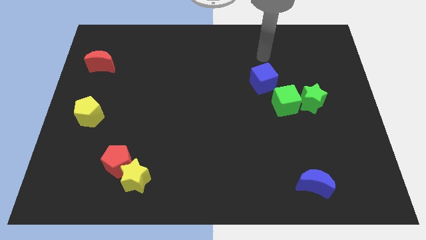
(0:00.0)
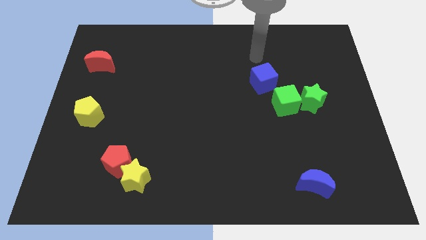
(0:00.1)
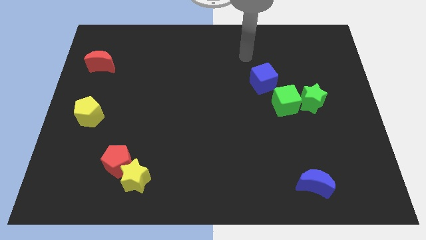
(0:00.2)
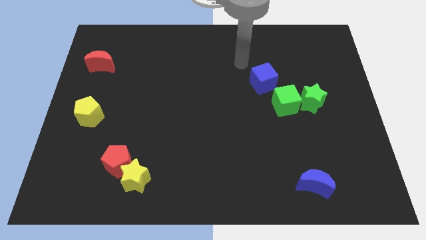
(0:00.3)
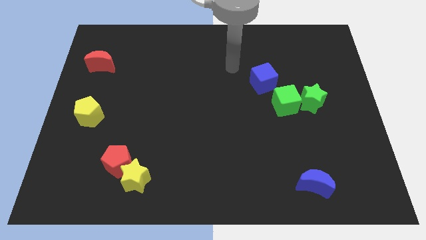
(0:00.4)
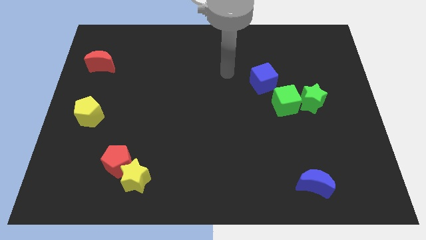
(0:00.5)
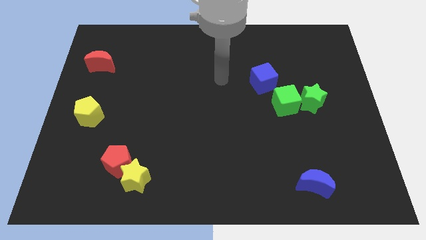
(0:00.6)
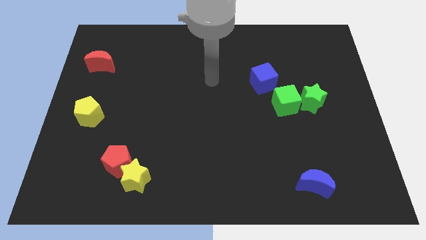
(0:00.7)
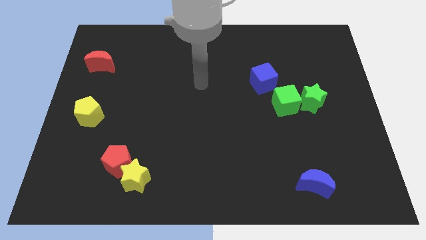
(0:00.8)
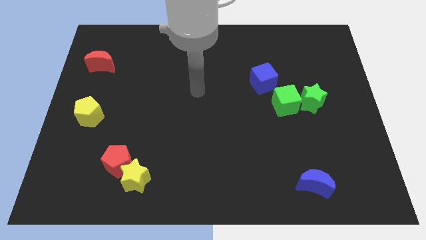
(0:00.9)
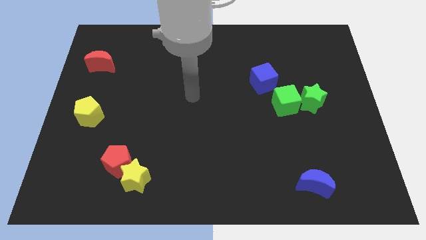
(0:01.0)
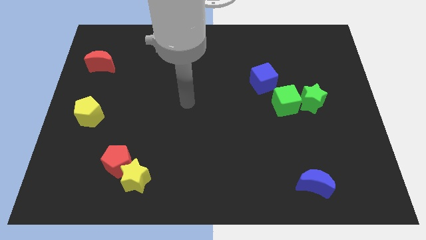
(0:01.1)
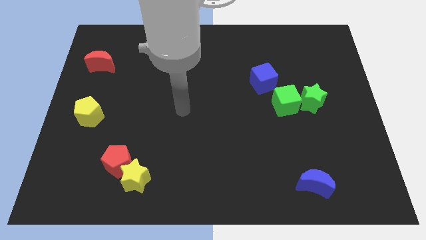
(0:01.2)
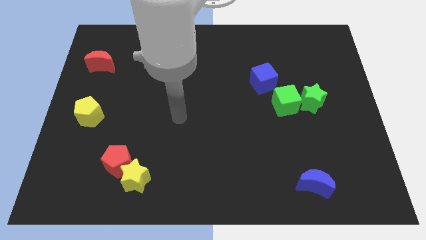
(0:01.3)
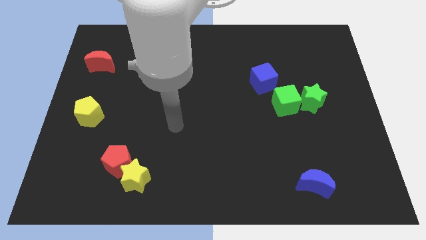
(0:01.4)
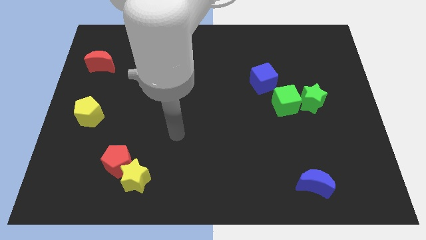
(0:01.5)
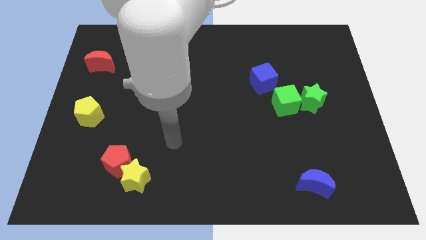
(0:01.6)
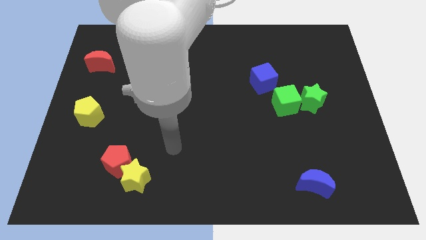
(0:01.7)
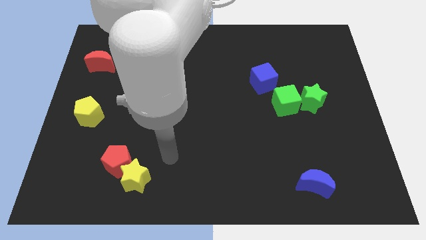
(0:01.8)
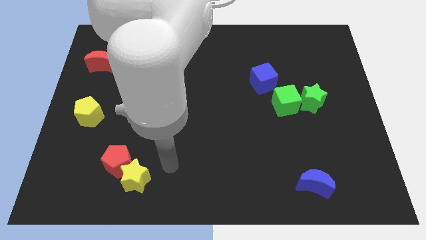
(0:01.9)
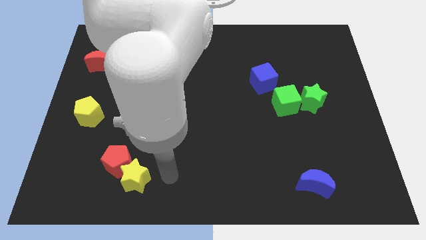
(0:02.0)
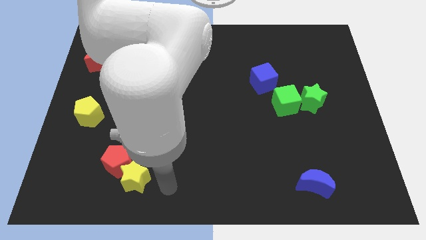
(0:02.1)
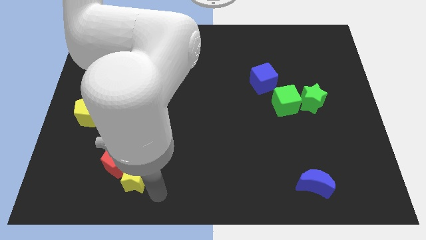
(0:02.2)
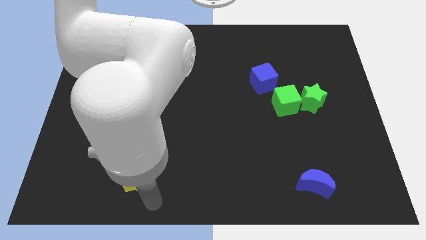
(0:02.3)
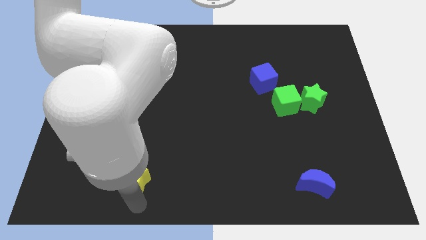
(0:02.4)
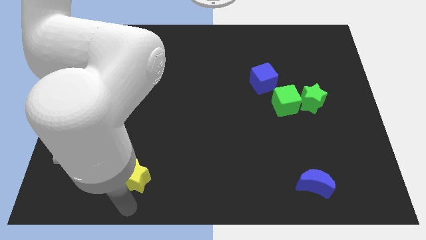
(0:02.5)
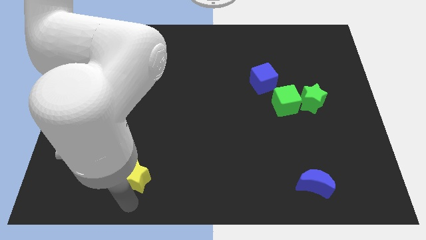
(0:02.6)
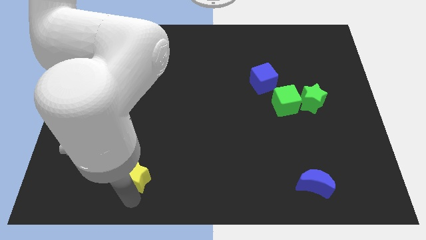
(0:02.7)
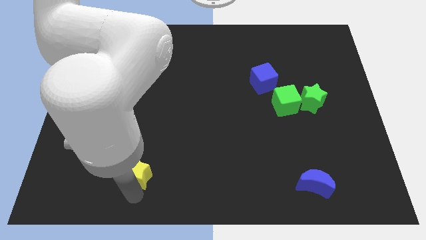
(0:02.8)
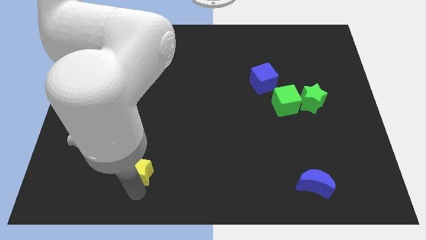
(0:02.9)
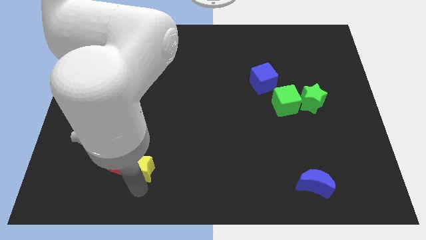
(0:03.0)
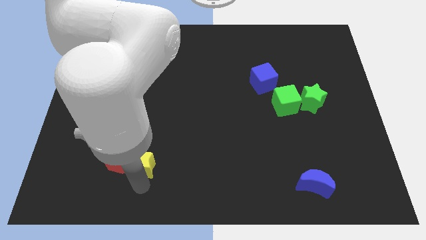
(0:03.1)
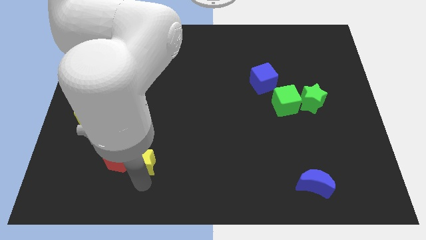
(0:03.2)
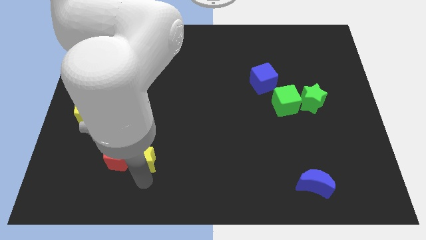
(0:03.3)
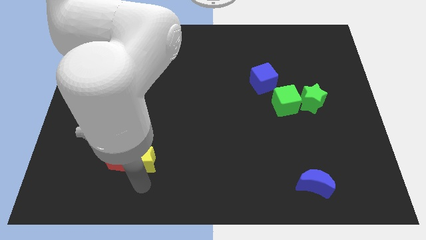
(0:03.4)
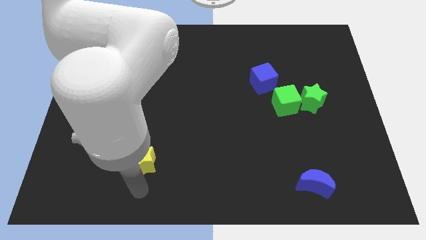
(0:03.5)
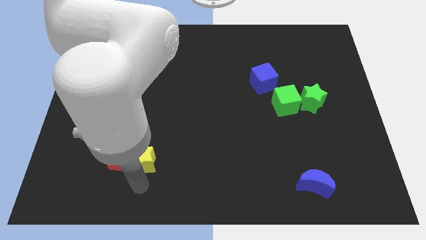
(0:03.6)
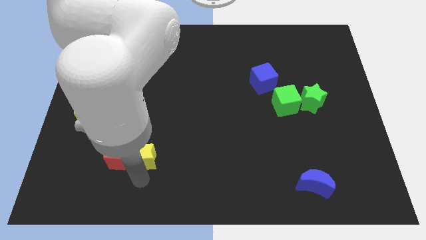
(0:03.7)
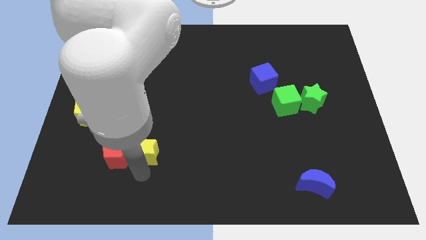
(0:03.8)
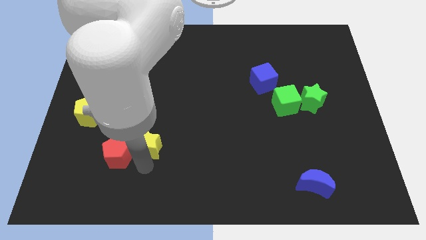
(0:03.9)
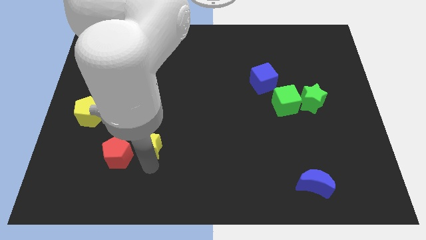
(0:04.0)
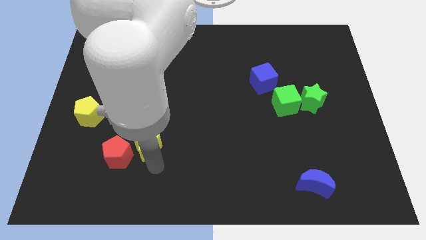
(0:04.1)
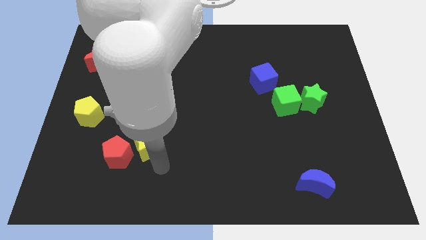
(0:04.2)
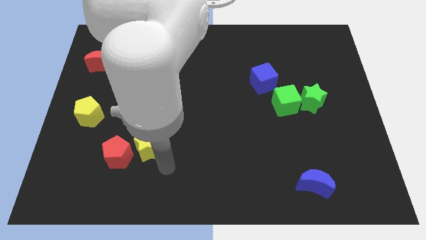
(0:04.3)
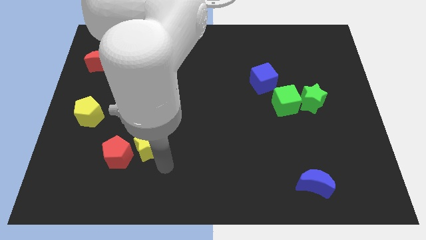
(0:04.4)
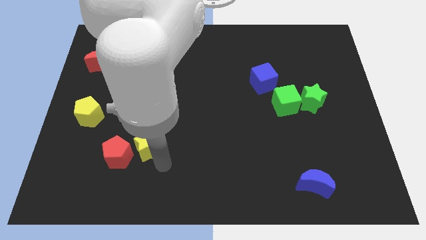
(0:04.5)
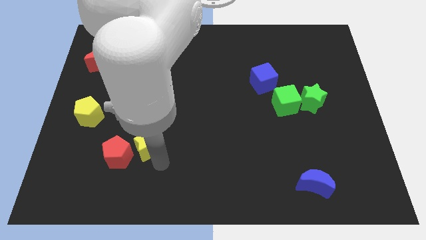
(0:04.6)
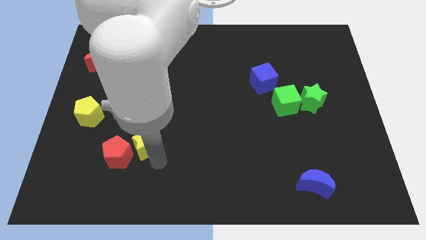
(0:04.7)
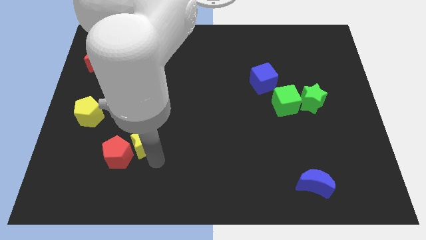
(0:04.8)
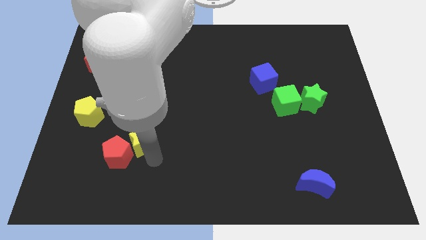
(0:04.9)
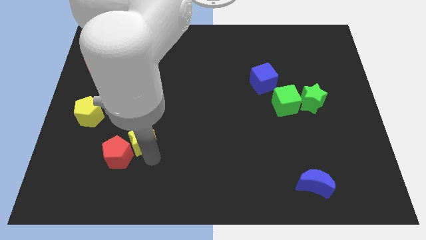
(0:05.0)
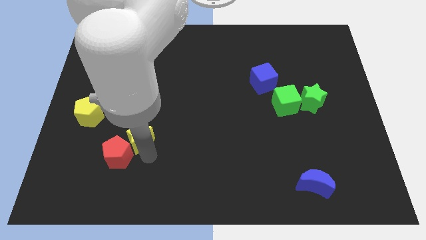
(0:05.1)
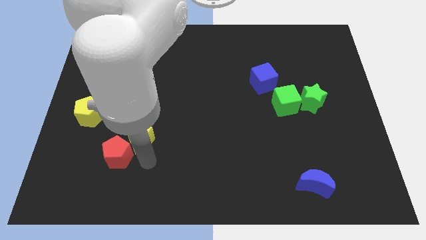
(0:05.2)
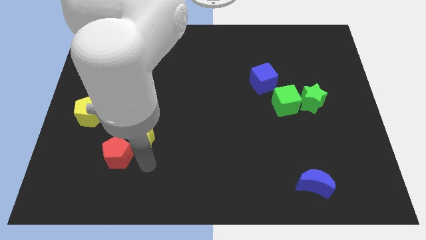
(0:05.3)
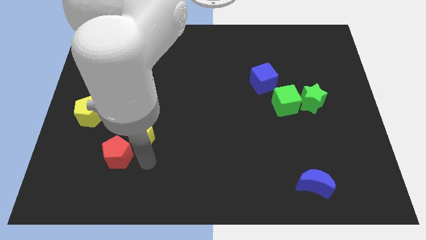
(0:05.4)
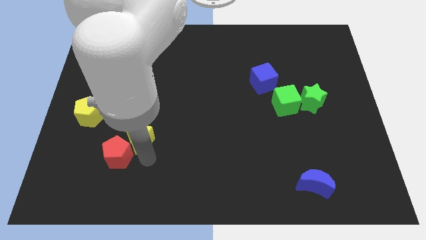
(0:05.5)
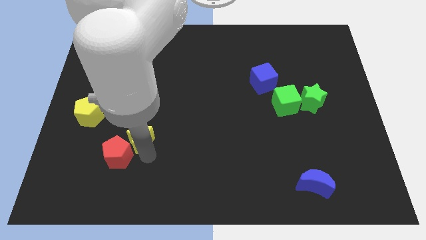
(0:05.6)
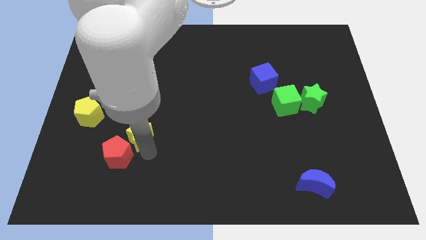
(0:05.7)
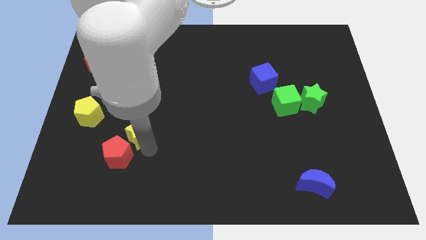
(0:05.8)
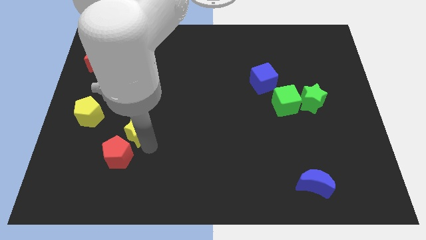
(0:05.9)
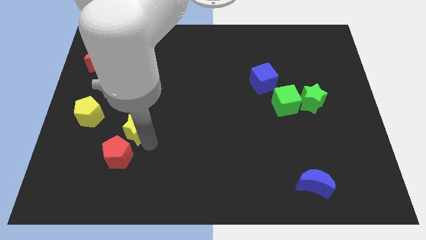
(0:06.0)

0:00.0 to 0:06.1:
put the yellow star to the right side of the yellow pentagon

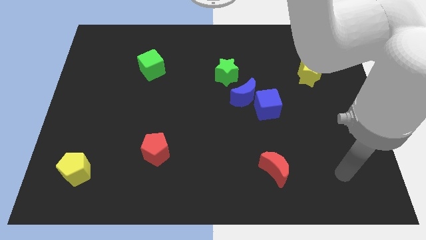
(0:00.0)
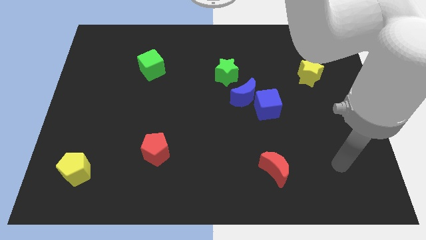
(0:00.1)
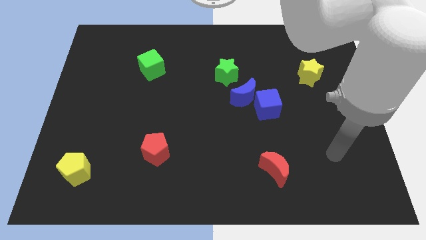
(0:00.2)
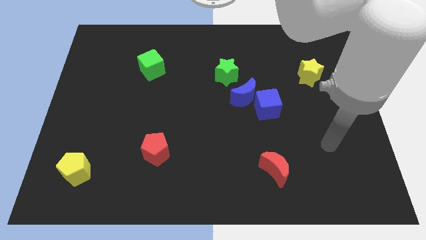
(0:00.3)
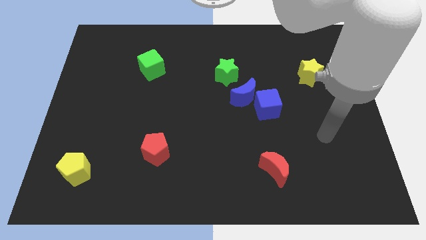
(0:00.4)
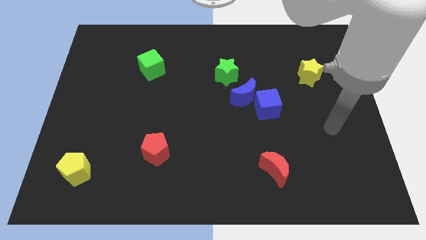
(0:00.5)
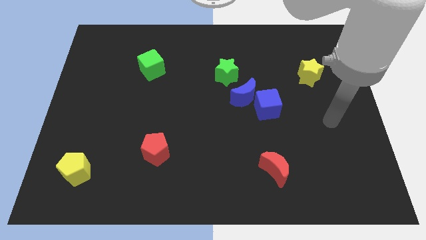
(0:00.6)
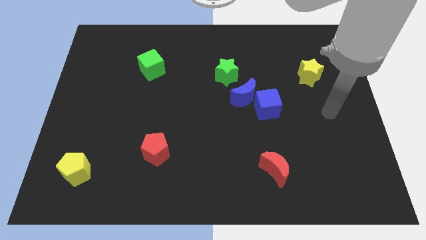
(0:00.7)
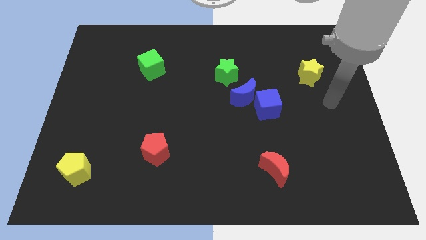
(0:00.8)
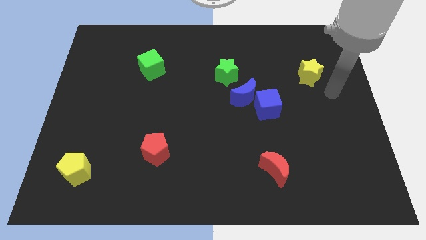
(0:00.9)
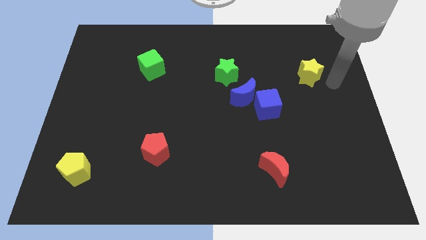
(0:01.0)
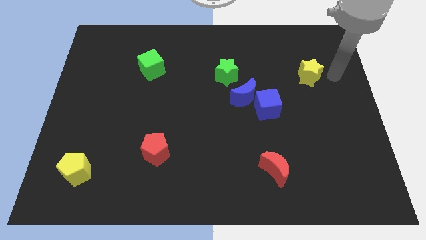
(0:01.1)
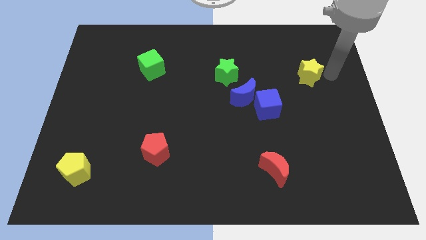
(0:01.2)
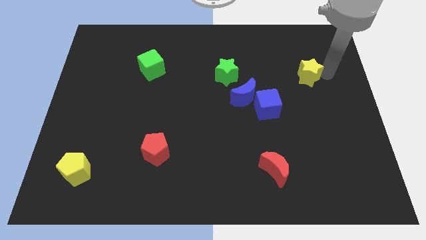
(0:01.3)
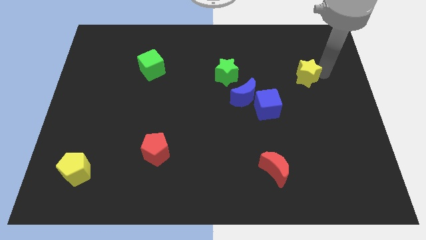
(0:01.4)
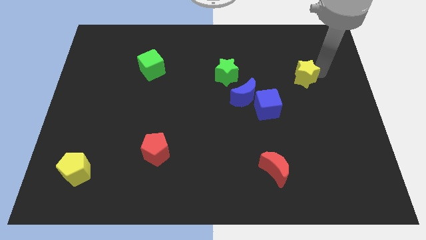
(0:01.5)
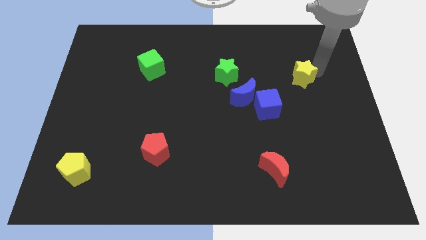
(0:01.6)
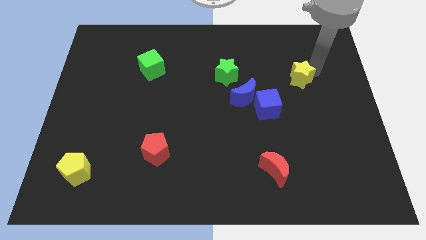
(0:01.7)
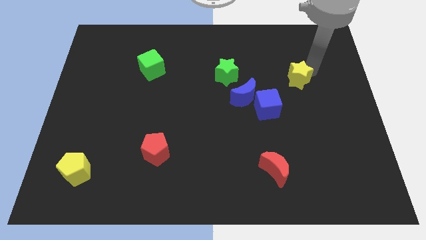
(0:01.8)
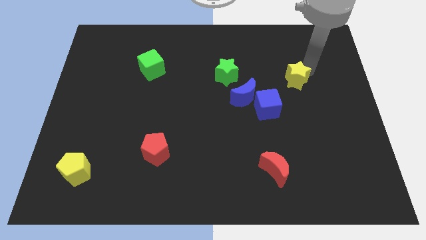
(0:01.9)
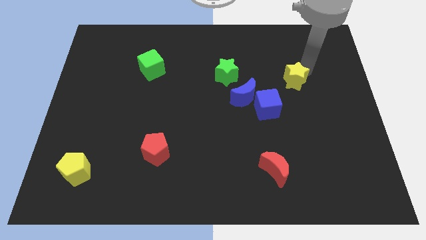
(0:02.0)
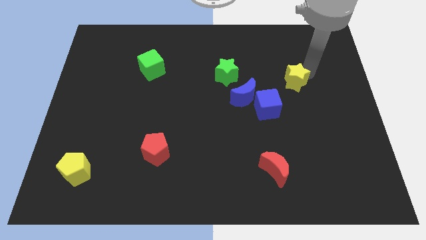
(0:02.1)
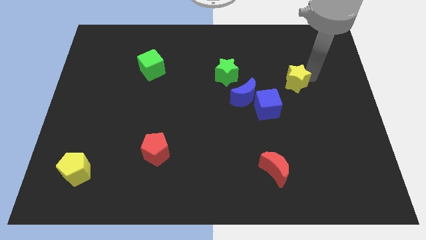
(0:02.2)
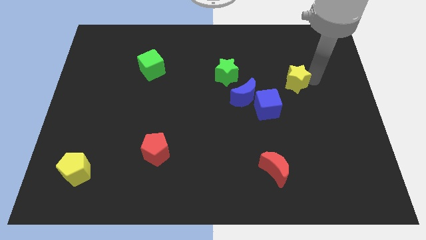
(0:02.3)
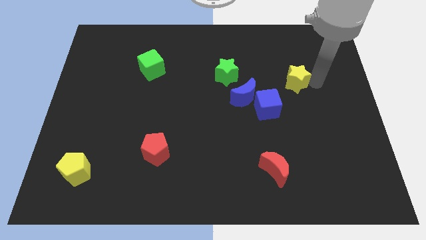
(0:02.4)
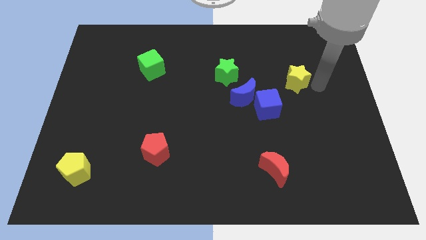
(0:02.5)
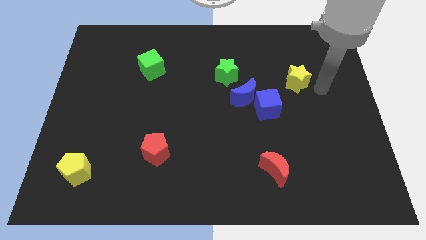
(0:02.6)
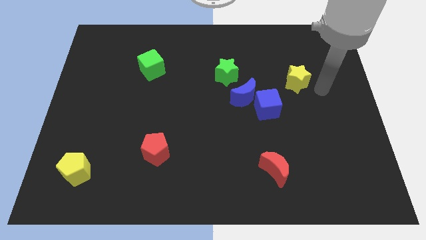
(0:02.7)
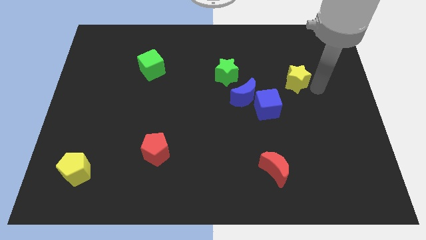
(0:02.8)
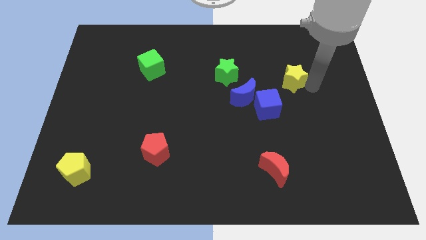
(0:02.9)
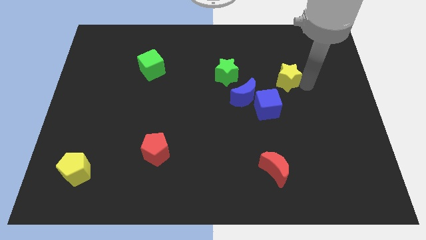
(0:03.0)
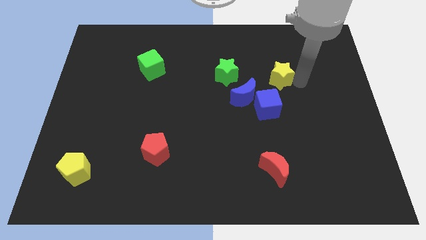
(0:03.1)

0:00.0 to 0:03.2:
move the yellow star diagonally up and to the right of the blue moon
